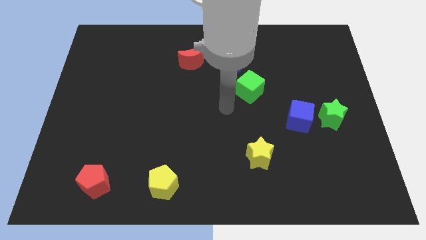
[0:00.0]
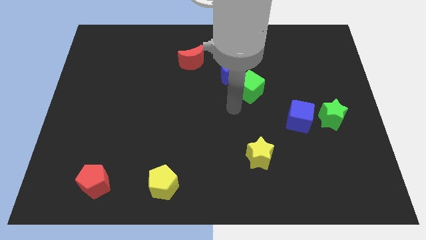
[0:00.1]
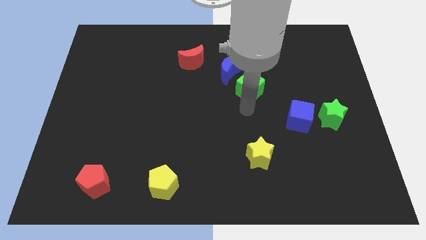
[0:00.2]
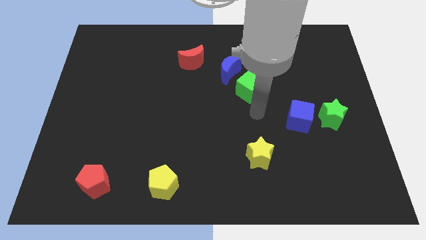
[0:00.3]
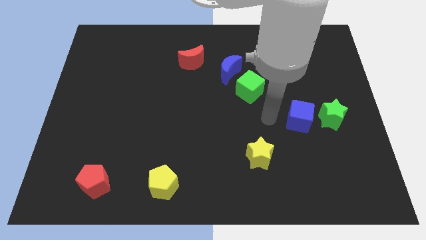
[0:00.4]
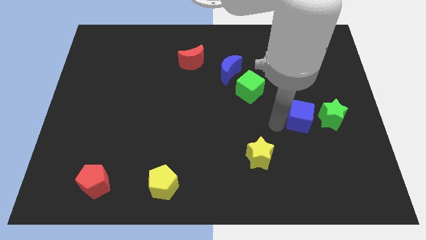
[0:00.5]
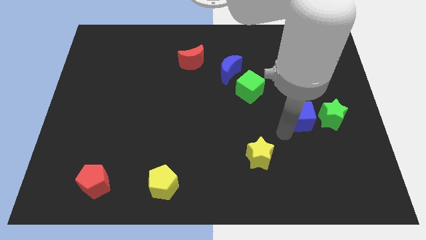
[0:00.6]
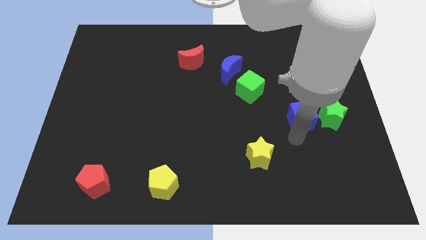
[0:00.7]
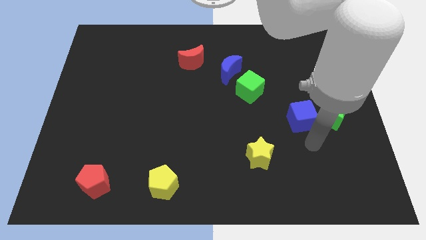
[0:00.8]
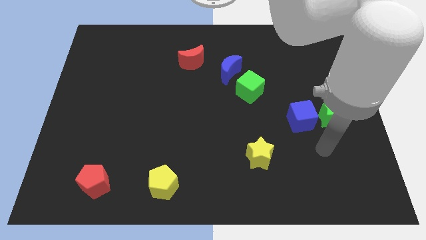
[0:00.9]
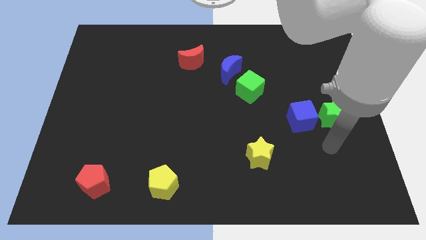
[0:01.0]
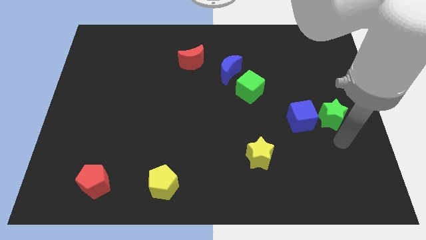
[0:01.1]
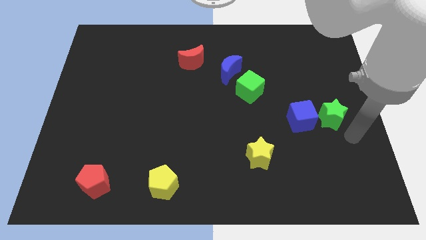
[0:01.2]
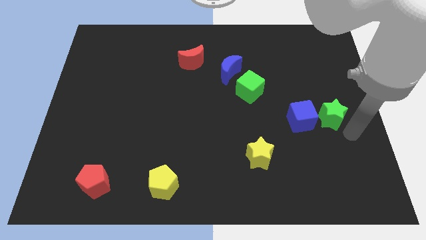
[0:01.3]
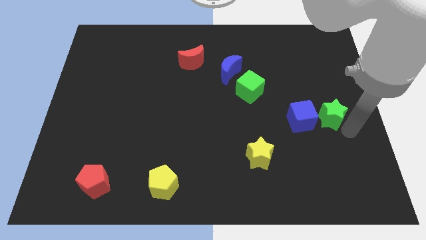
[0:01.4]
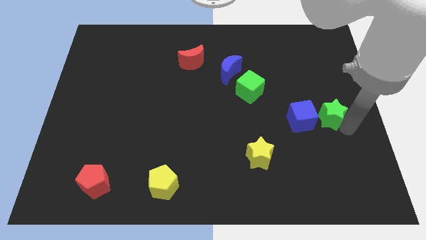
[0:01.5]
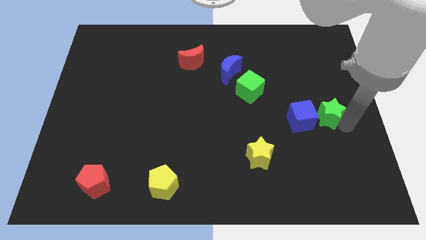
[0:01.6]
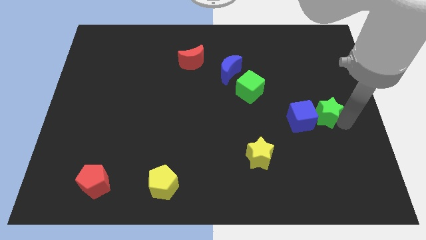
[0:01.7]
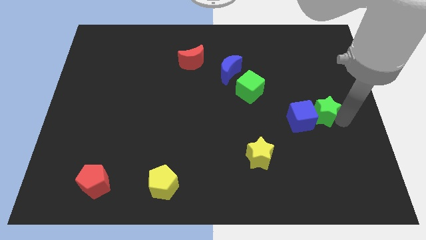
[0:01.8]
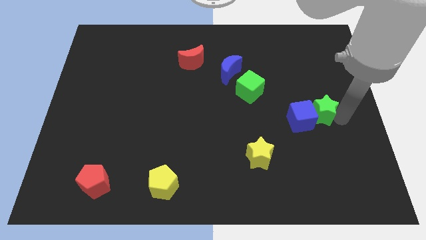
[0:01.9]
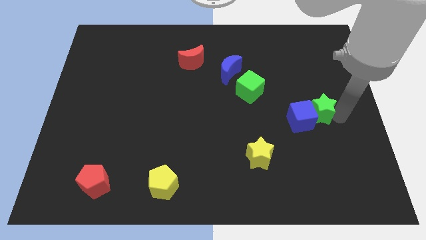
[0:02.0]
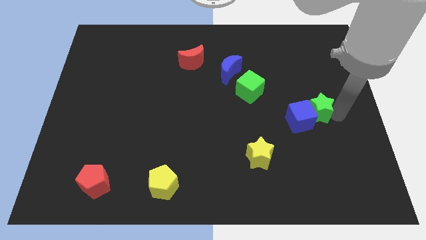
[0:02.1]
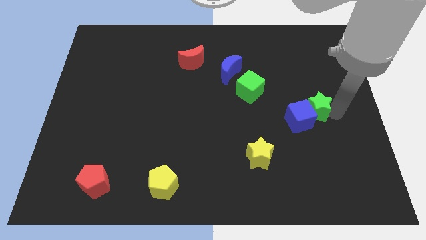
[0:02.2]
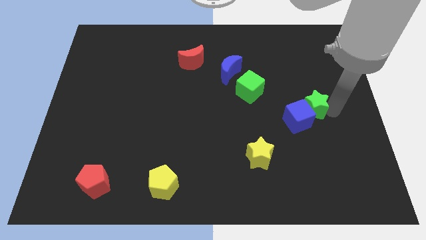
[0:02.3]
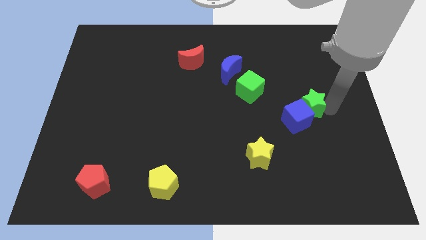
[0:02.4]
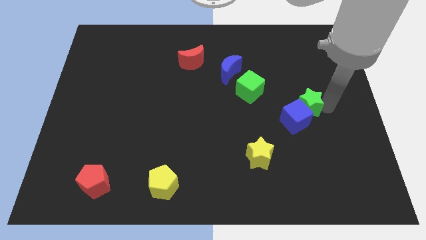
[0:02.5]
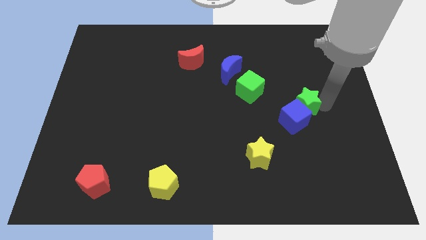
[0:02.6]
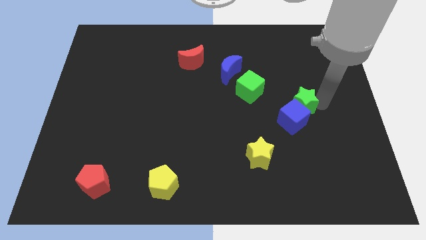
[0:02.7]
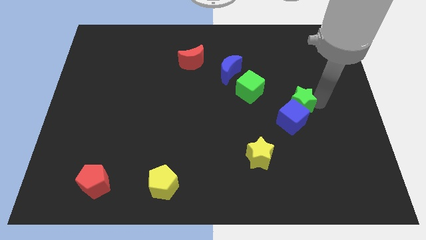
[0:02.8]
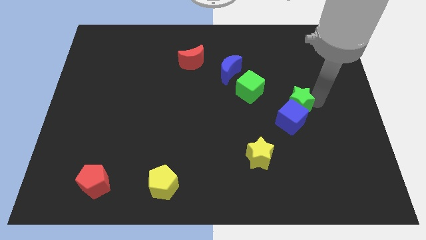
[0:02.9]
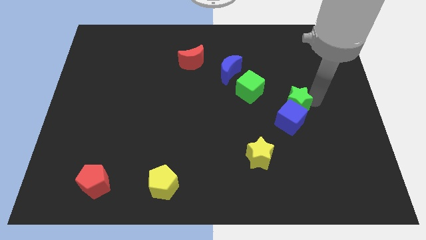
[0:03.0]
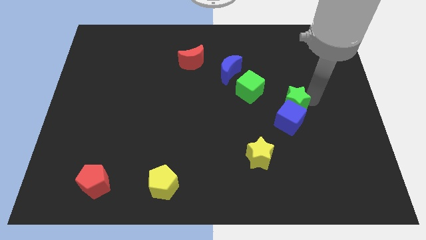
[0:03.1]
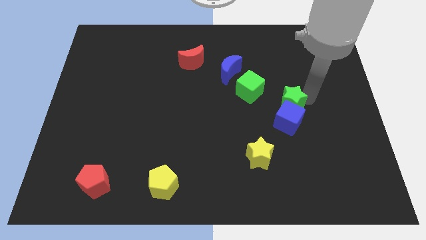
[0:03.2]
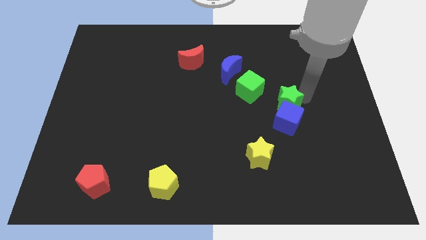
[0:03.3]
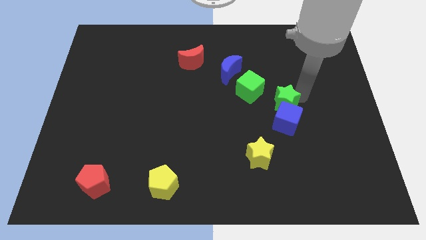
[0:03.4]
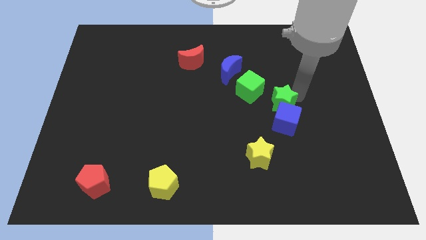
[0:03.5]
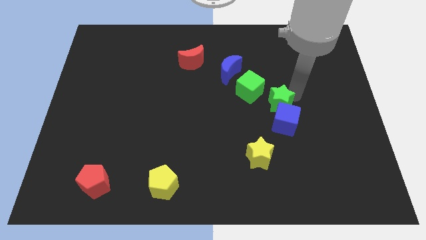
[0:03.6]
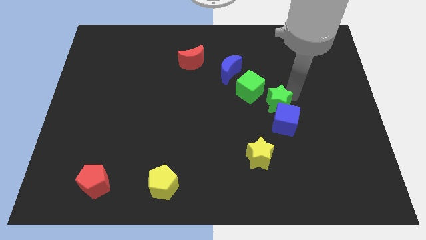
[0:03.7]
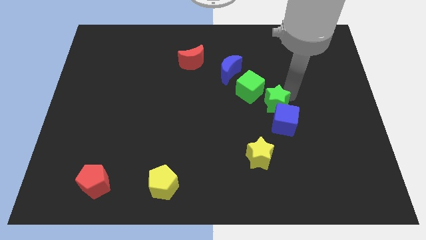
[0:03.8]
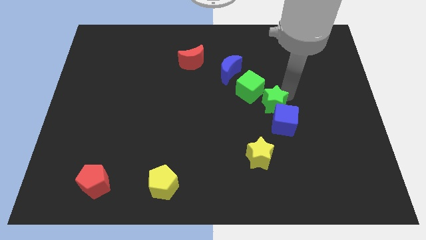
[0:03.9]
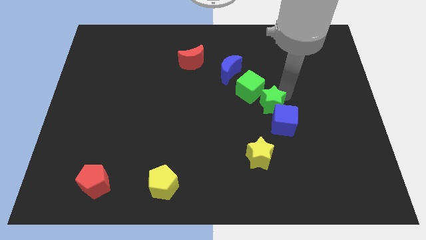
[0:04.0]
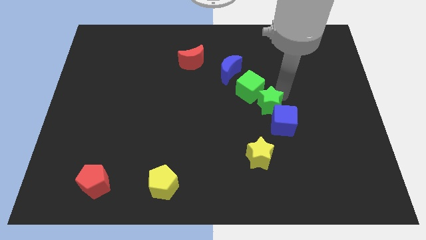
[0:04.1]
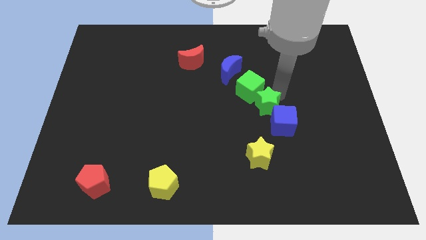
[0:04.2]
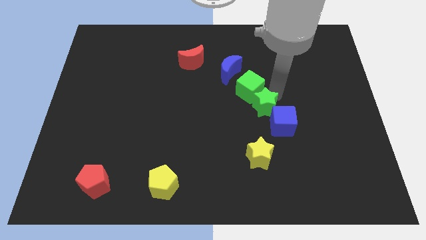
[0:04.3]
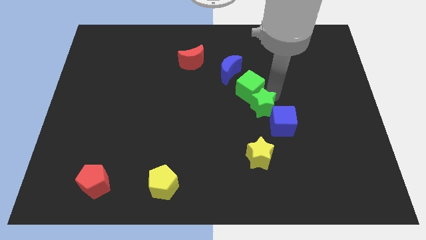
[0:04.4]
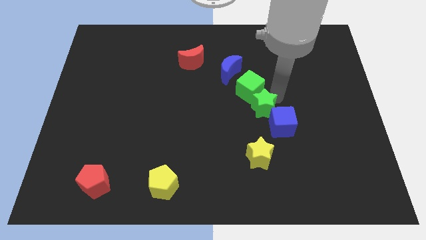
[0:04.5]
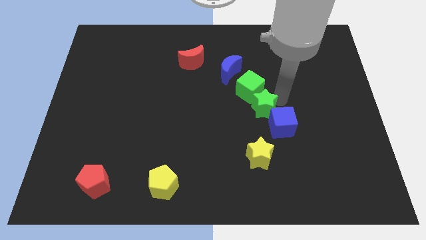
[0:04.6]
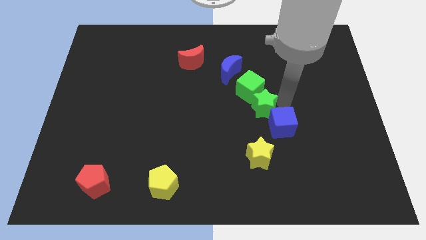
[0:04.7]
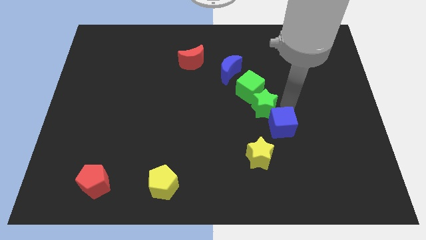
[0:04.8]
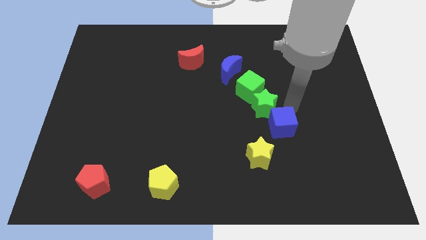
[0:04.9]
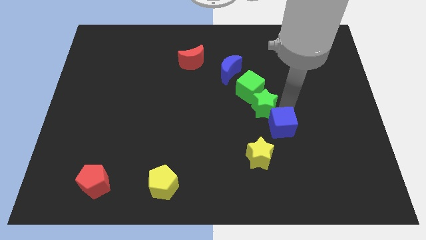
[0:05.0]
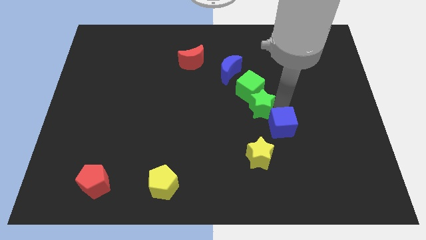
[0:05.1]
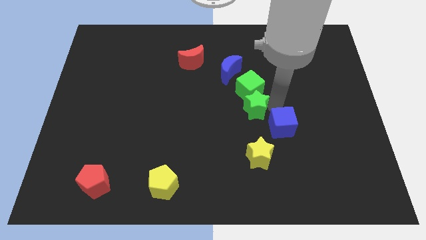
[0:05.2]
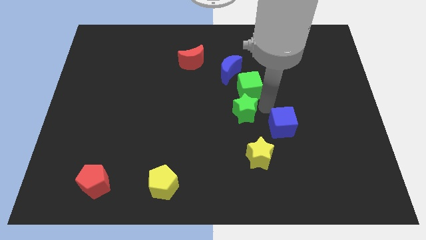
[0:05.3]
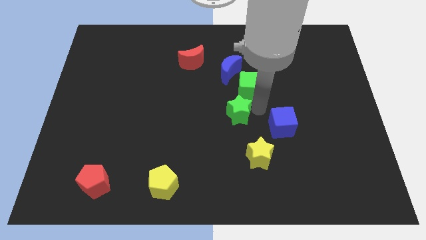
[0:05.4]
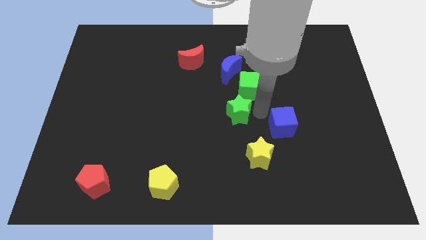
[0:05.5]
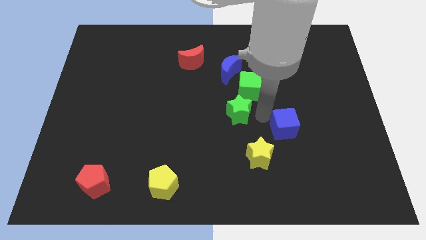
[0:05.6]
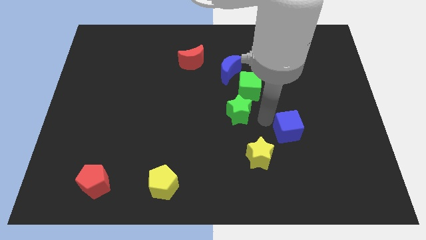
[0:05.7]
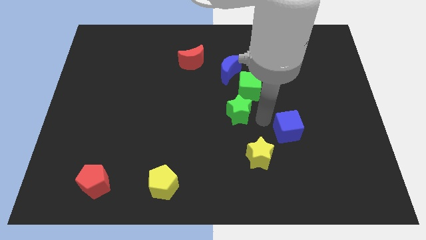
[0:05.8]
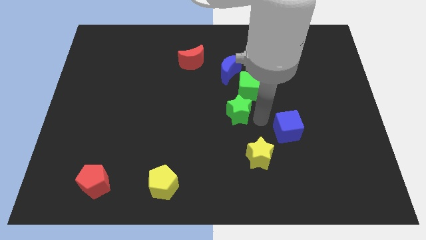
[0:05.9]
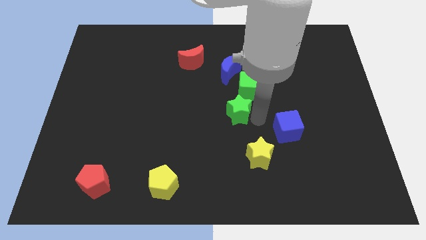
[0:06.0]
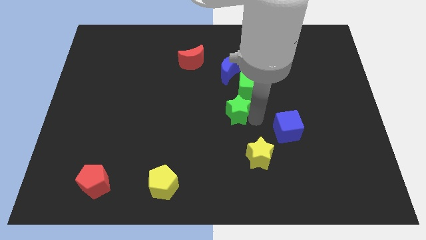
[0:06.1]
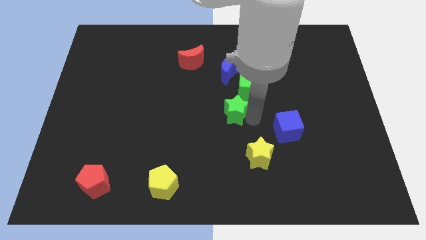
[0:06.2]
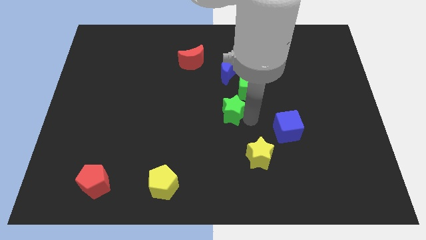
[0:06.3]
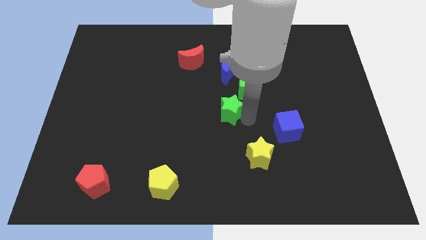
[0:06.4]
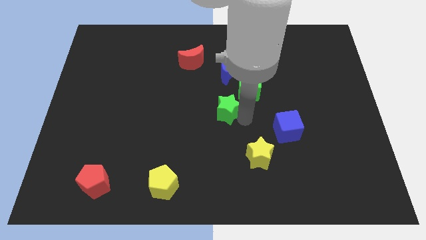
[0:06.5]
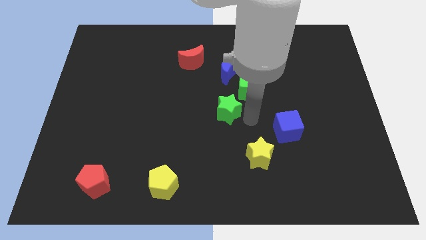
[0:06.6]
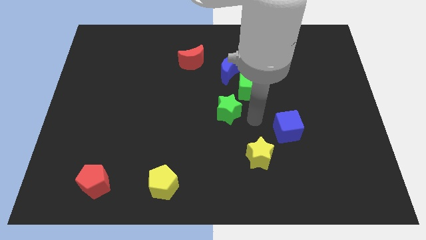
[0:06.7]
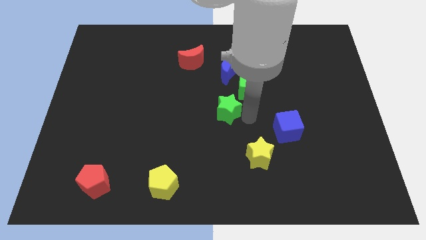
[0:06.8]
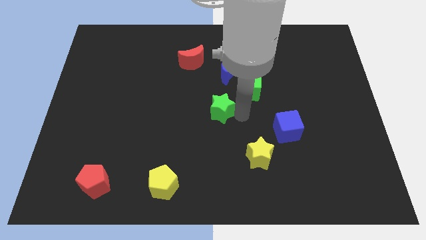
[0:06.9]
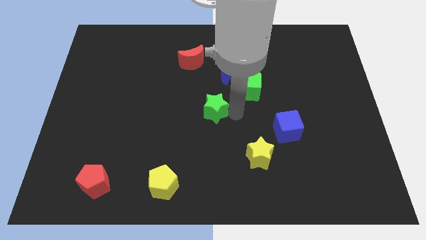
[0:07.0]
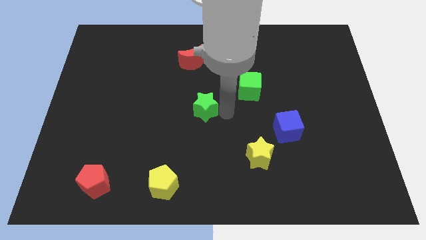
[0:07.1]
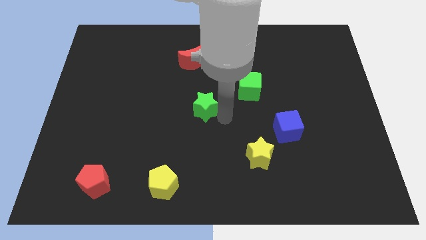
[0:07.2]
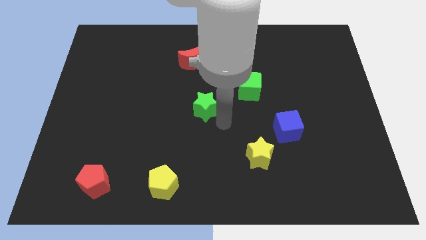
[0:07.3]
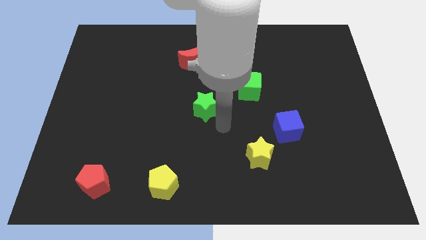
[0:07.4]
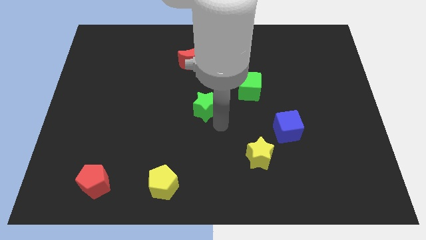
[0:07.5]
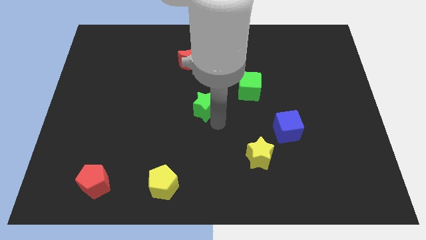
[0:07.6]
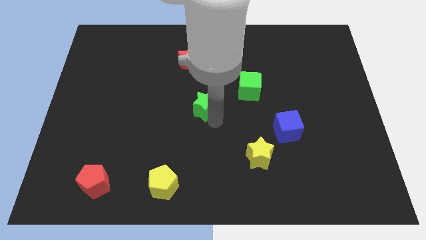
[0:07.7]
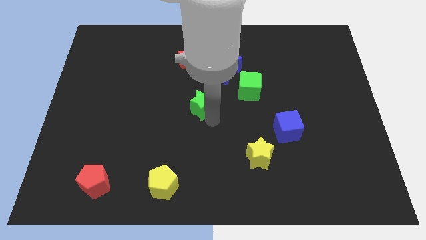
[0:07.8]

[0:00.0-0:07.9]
push the green star below the red moon

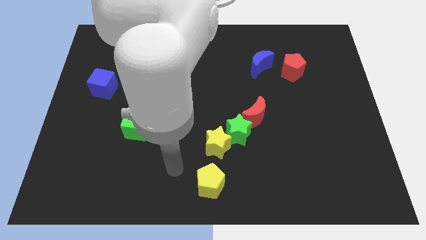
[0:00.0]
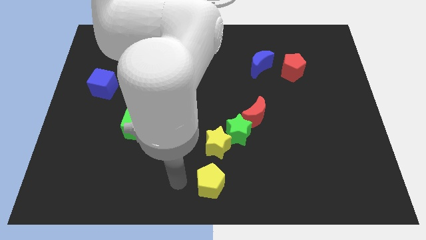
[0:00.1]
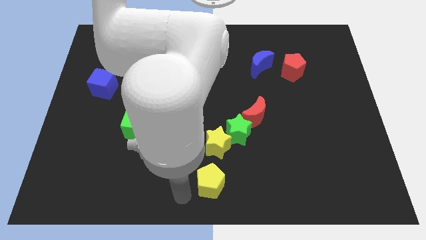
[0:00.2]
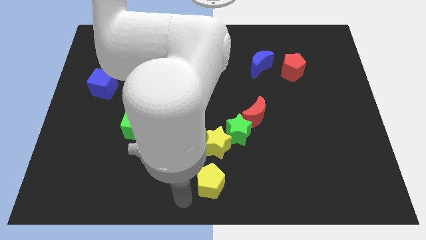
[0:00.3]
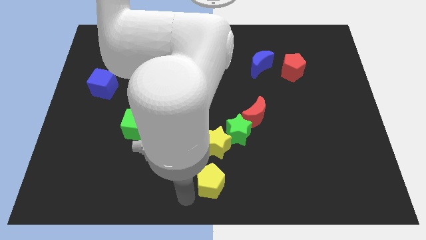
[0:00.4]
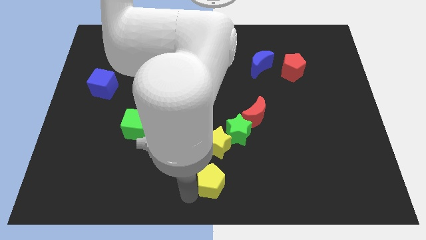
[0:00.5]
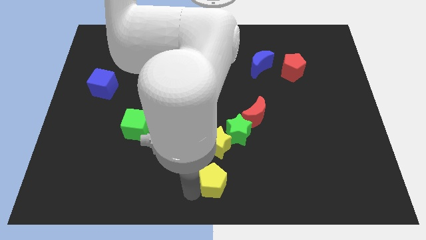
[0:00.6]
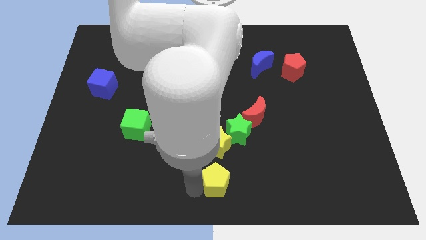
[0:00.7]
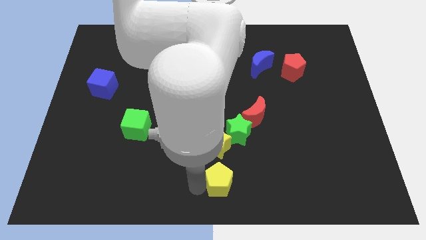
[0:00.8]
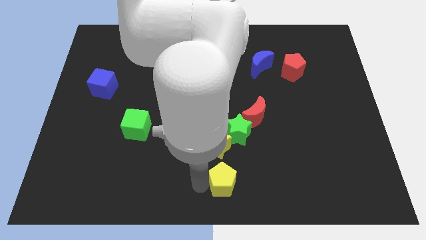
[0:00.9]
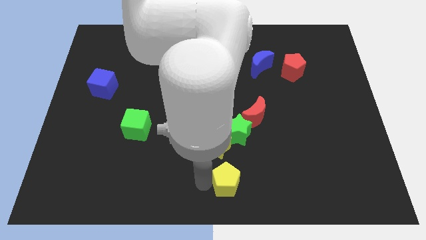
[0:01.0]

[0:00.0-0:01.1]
move the yellow pentagon to the bottom right side of the yellow star
